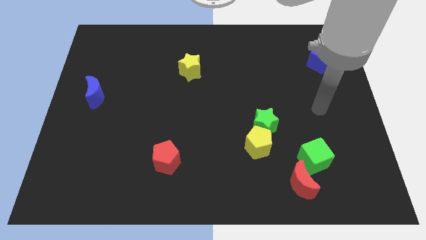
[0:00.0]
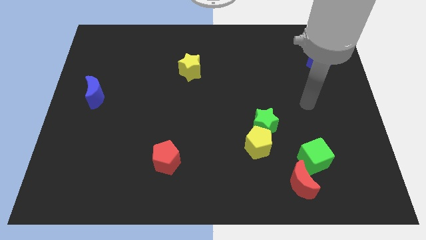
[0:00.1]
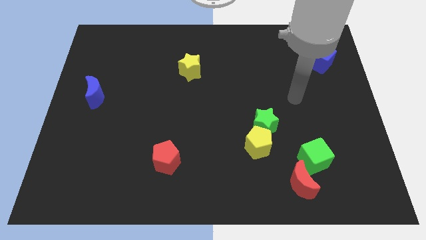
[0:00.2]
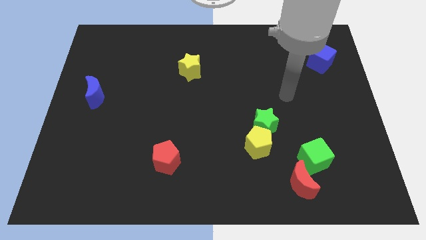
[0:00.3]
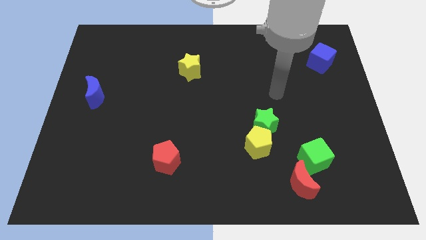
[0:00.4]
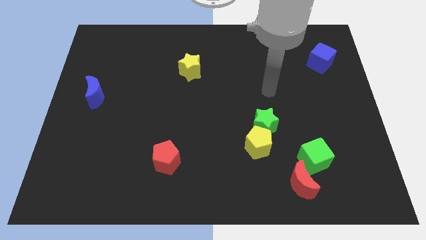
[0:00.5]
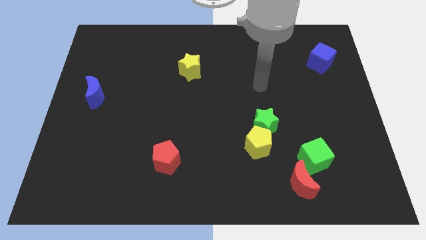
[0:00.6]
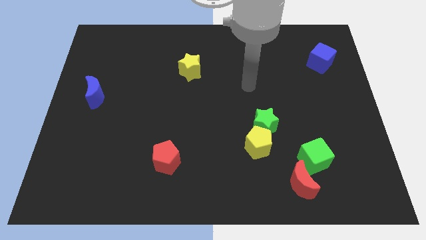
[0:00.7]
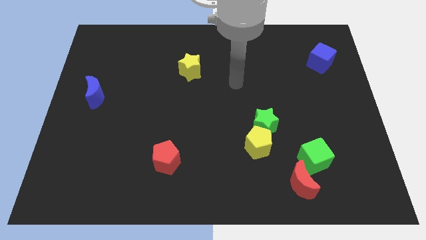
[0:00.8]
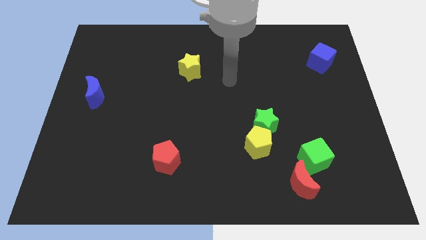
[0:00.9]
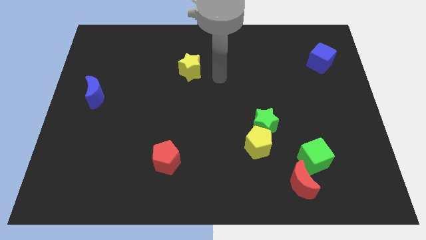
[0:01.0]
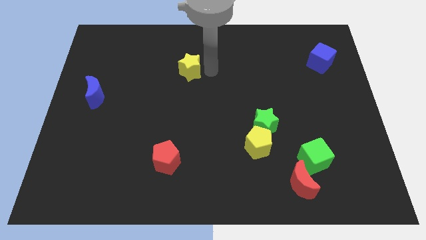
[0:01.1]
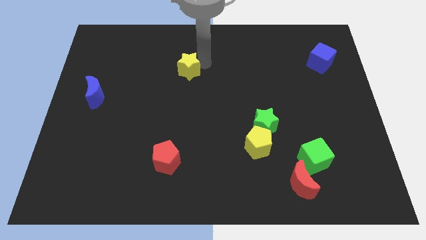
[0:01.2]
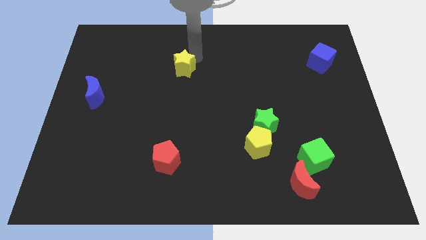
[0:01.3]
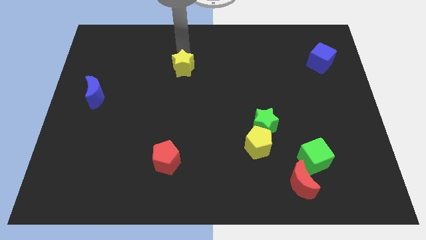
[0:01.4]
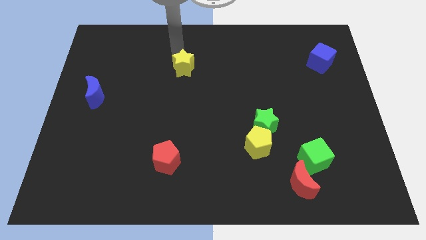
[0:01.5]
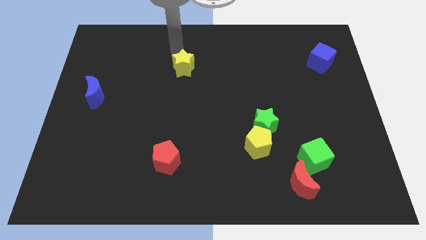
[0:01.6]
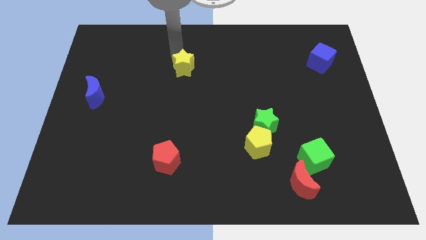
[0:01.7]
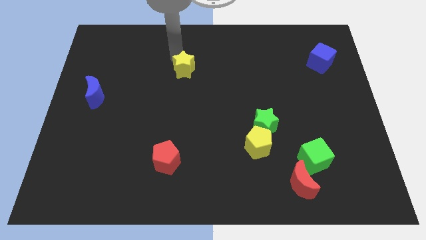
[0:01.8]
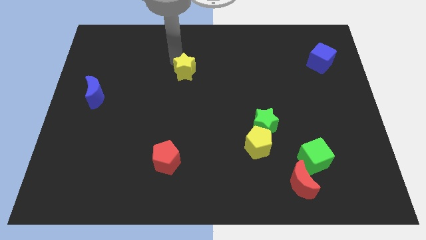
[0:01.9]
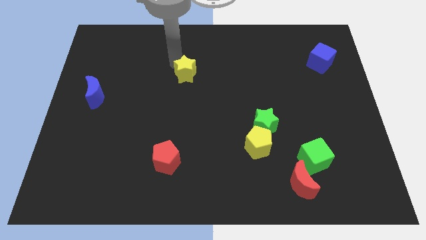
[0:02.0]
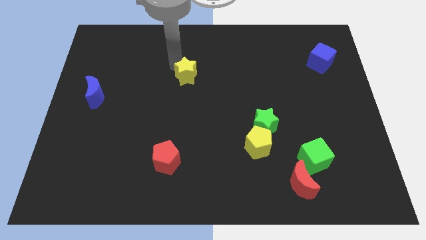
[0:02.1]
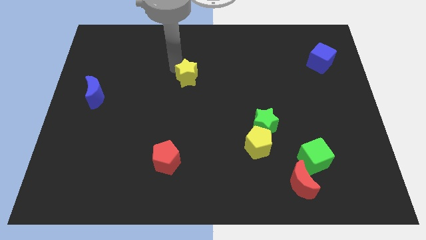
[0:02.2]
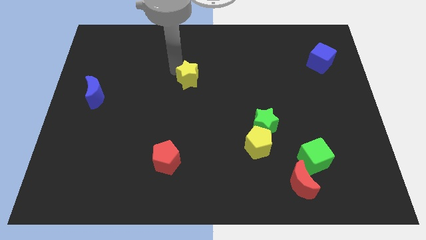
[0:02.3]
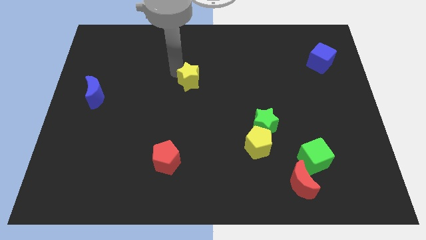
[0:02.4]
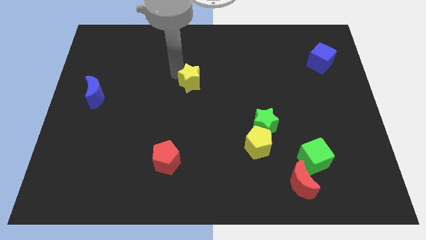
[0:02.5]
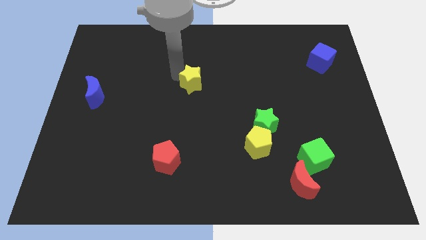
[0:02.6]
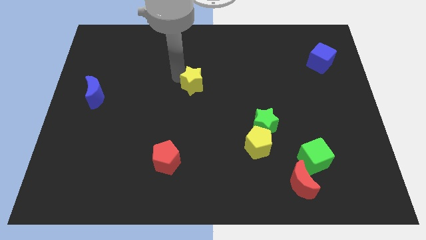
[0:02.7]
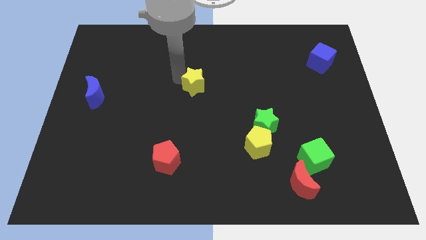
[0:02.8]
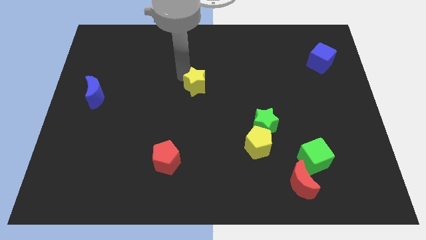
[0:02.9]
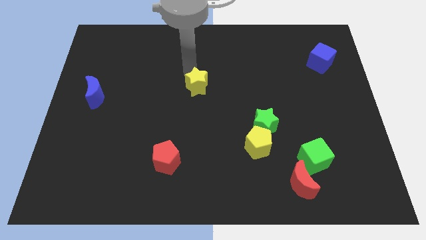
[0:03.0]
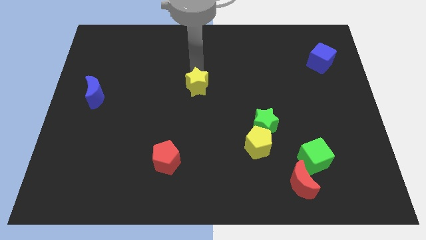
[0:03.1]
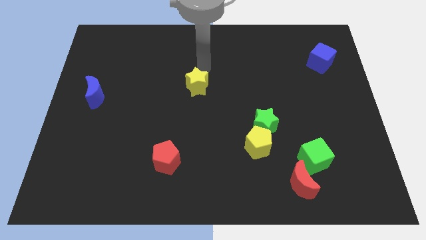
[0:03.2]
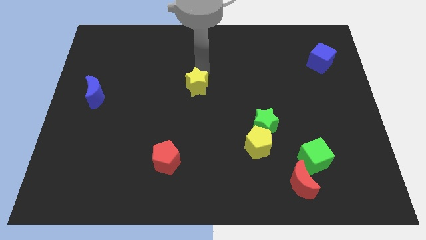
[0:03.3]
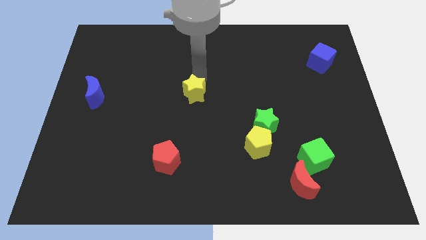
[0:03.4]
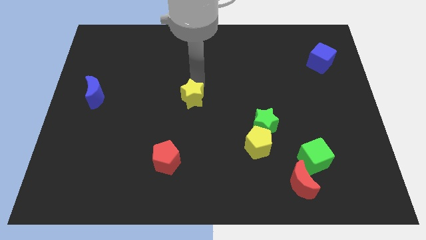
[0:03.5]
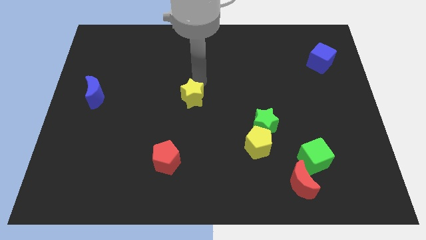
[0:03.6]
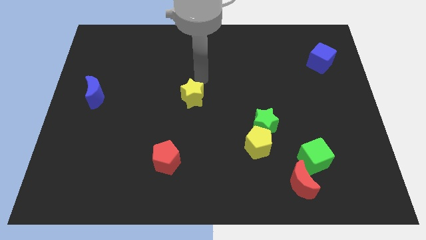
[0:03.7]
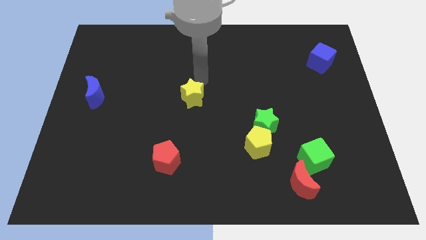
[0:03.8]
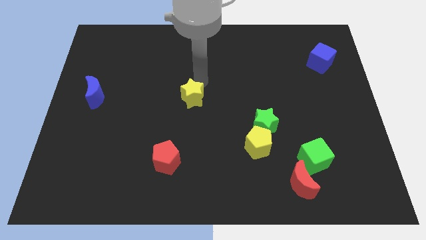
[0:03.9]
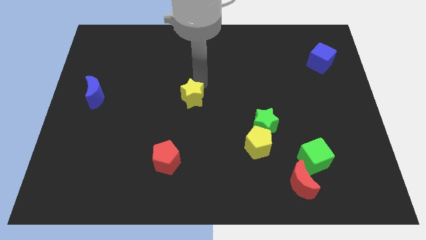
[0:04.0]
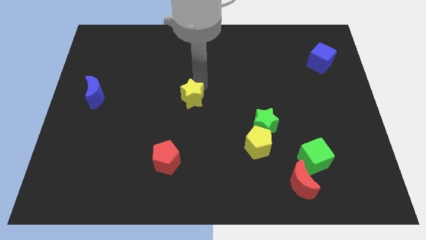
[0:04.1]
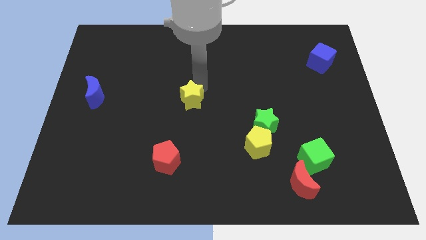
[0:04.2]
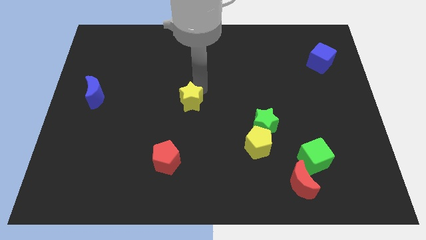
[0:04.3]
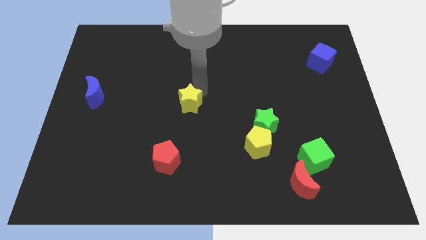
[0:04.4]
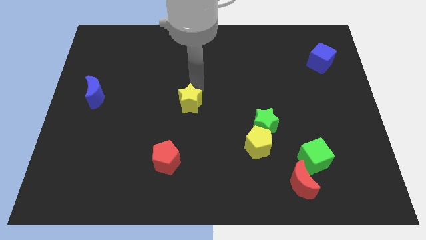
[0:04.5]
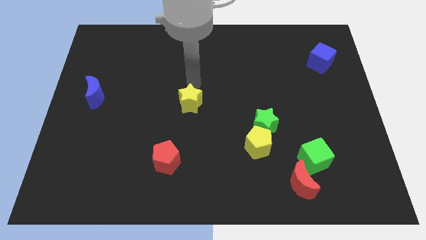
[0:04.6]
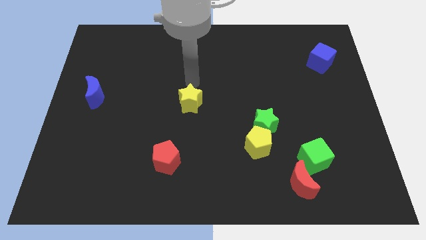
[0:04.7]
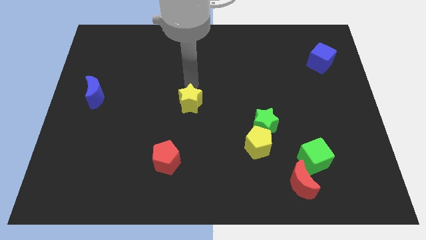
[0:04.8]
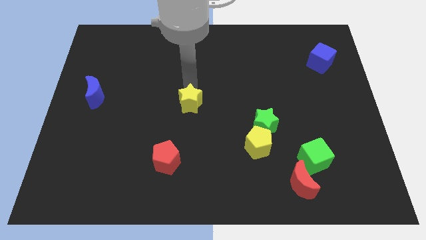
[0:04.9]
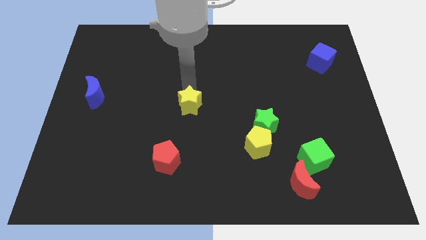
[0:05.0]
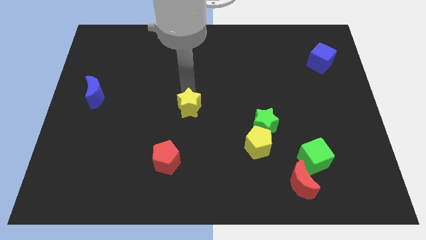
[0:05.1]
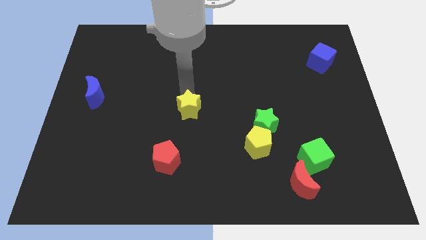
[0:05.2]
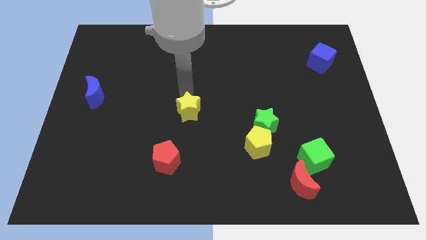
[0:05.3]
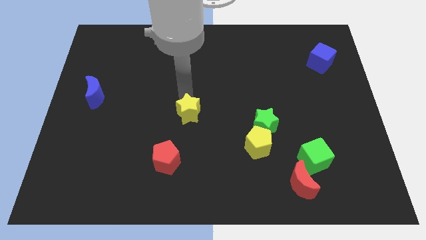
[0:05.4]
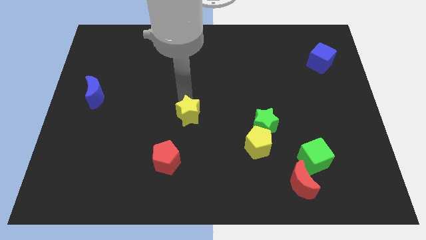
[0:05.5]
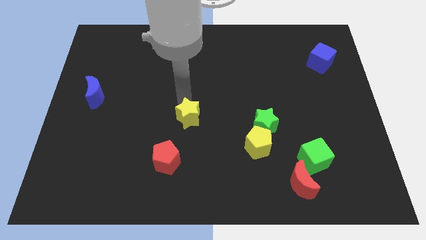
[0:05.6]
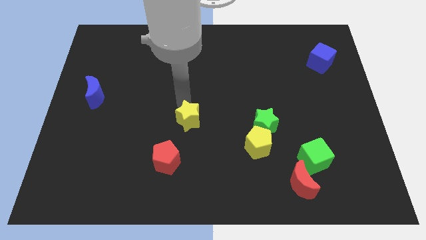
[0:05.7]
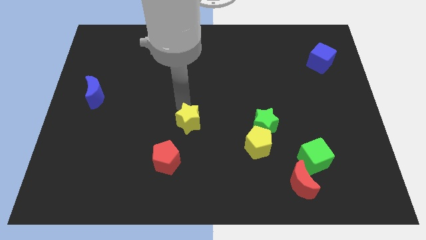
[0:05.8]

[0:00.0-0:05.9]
slide the yellow star diagonally up and to the right of the red pentagon
